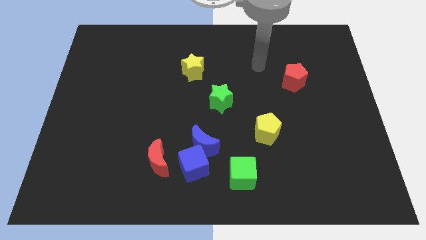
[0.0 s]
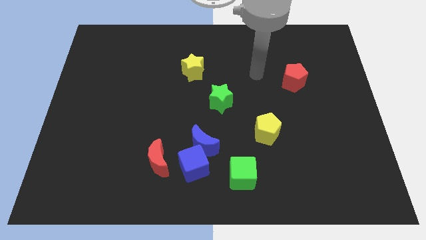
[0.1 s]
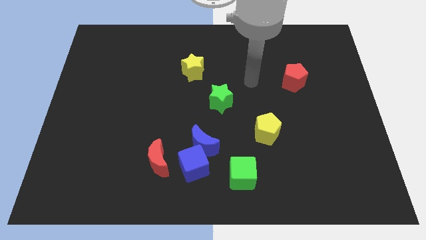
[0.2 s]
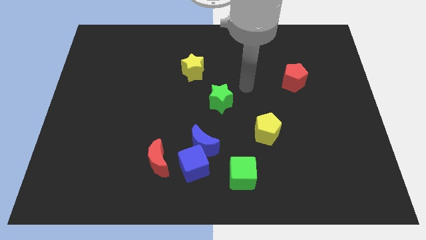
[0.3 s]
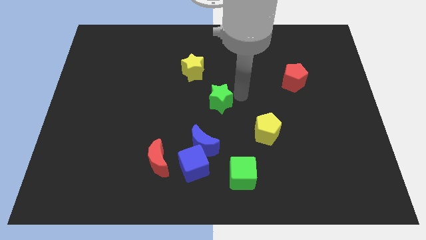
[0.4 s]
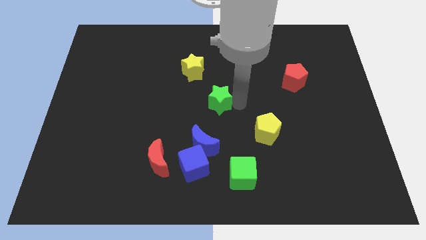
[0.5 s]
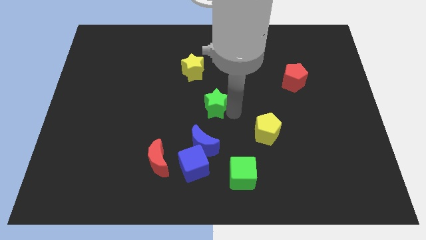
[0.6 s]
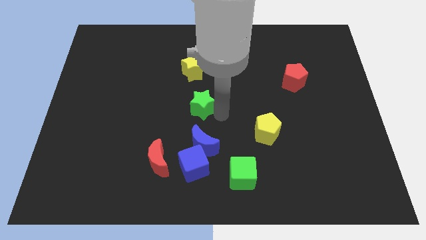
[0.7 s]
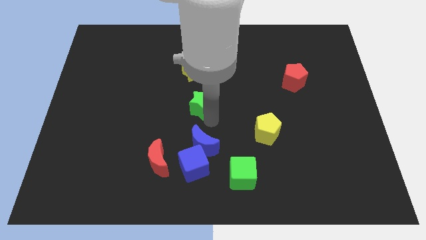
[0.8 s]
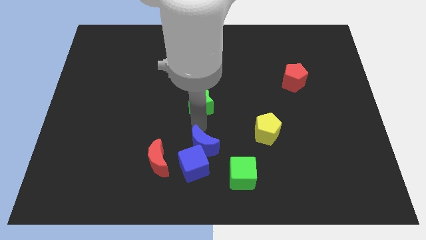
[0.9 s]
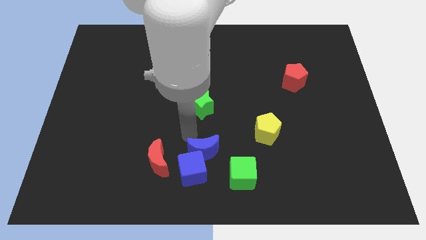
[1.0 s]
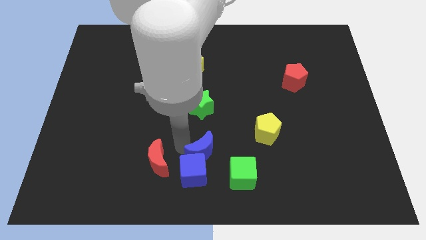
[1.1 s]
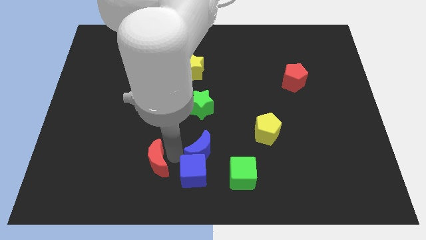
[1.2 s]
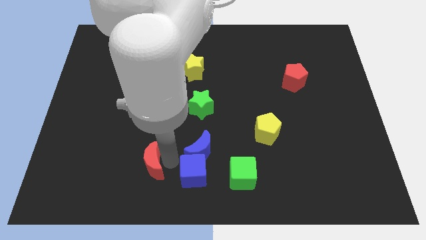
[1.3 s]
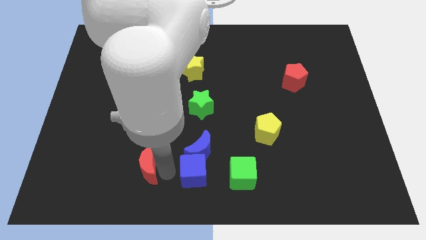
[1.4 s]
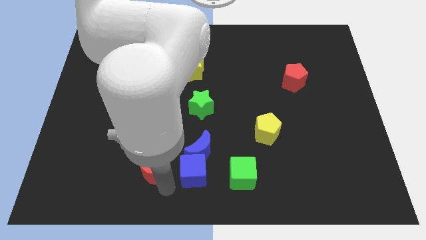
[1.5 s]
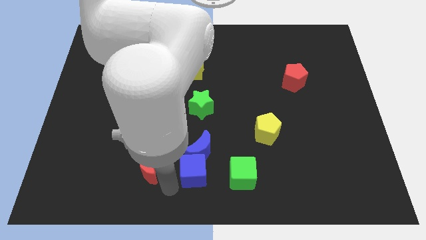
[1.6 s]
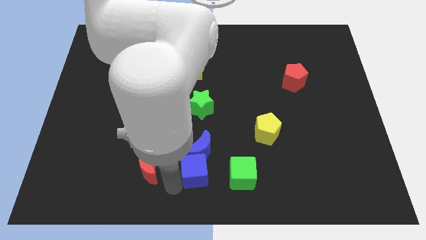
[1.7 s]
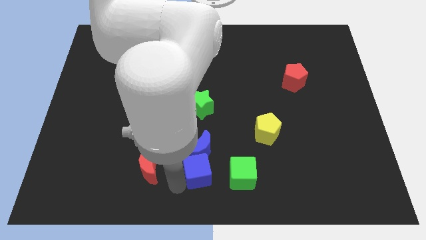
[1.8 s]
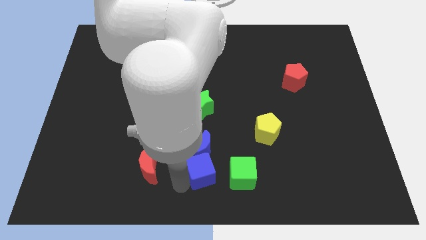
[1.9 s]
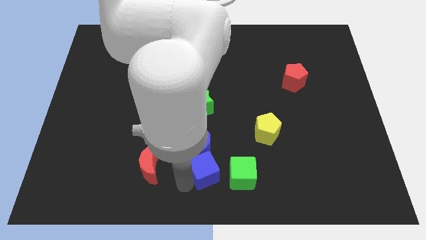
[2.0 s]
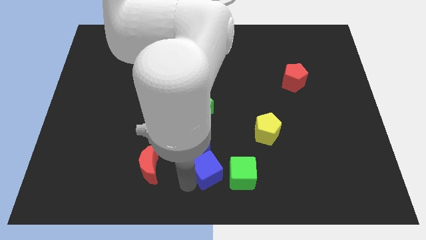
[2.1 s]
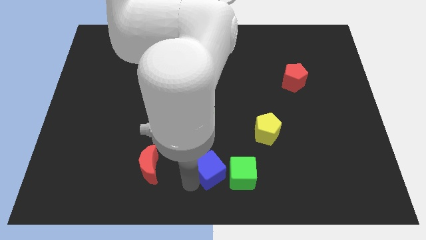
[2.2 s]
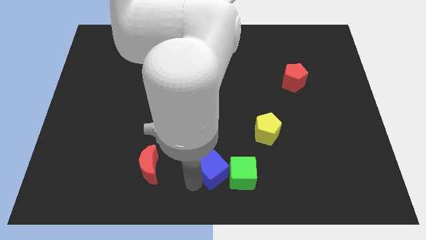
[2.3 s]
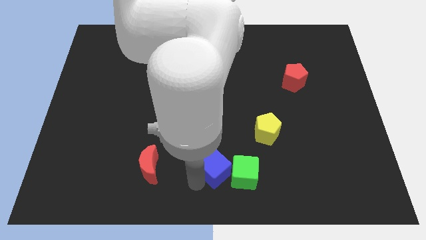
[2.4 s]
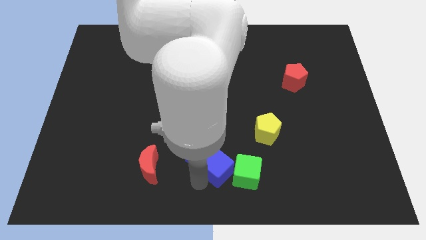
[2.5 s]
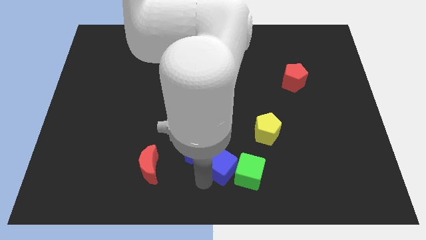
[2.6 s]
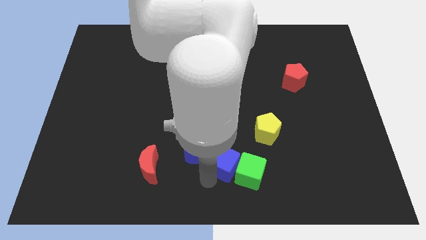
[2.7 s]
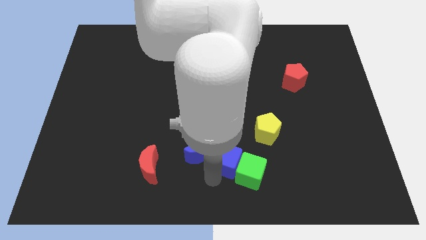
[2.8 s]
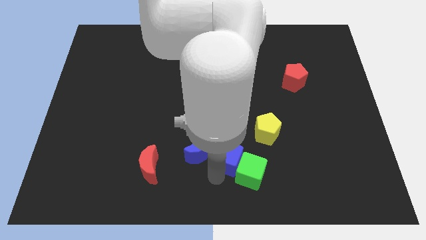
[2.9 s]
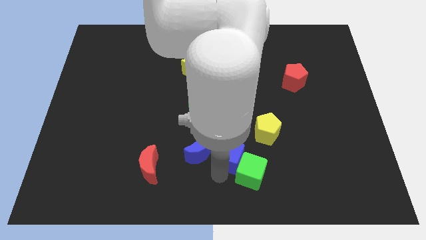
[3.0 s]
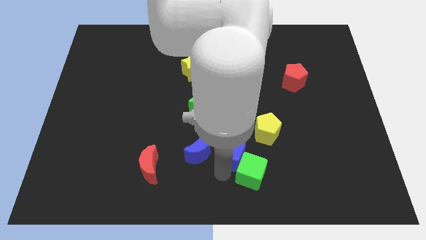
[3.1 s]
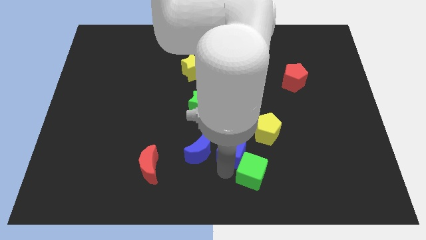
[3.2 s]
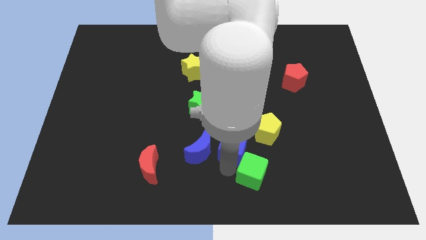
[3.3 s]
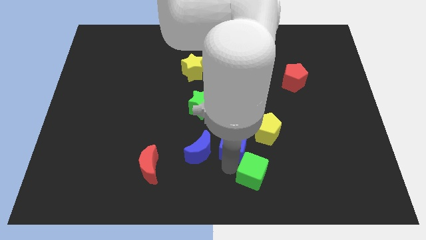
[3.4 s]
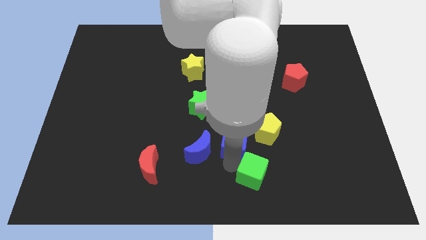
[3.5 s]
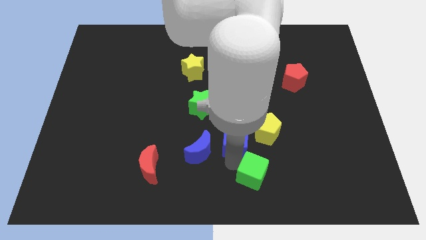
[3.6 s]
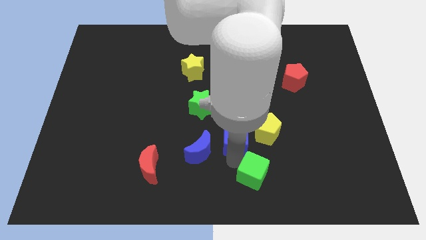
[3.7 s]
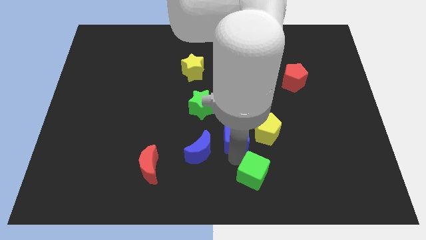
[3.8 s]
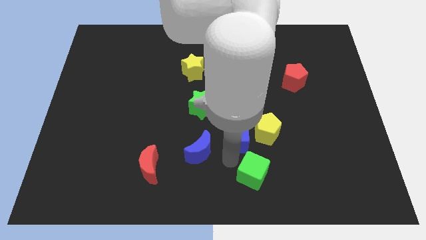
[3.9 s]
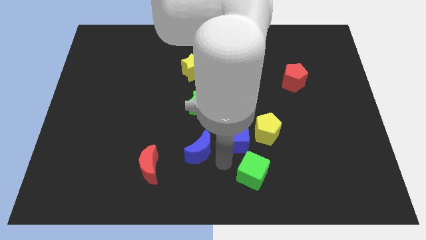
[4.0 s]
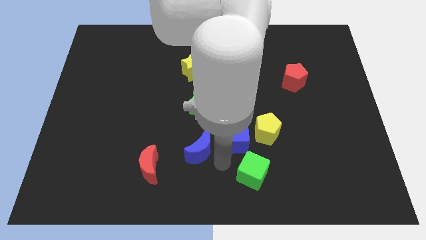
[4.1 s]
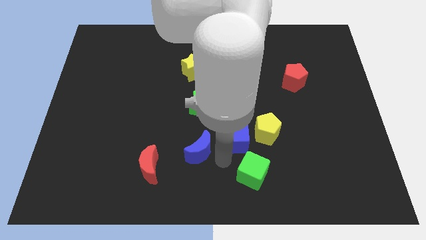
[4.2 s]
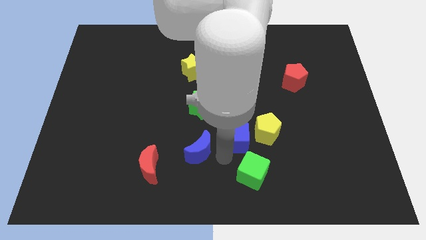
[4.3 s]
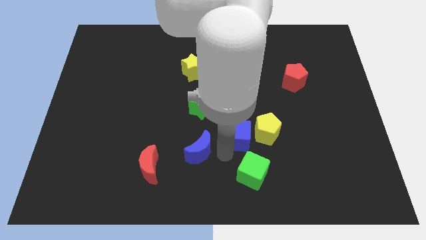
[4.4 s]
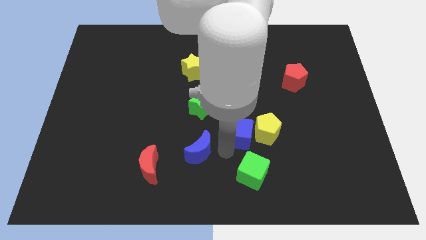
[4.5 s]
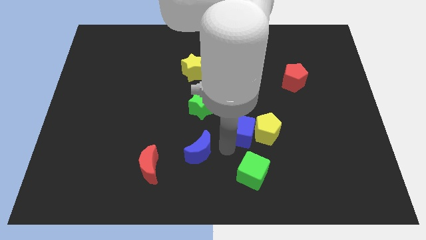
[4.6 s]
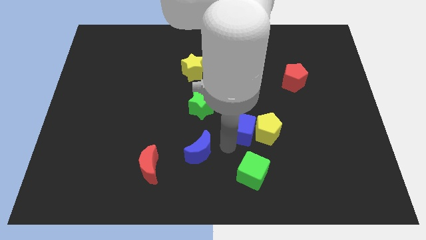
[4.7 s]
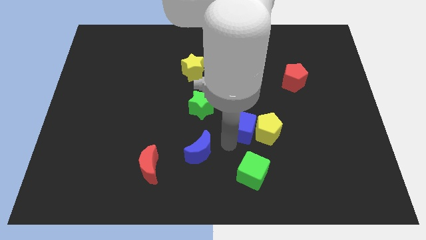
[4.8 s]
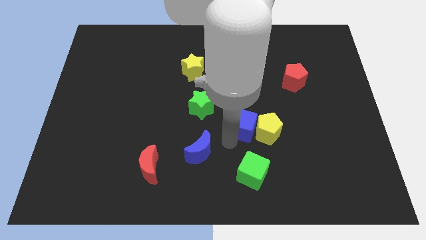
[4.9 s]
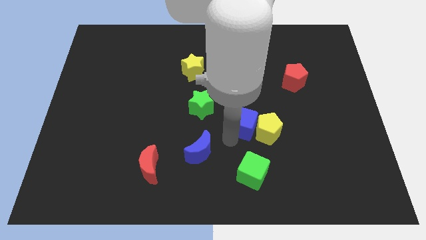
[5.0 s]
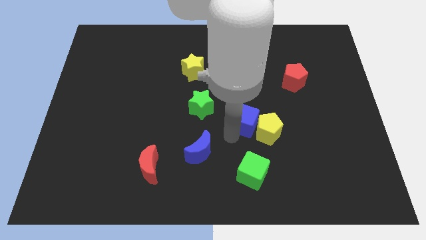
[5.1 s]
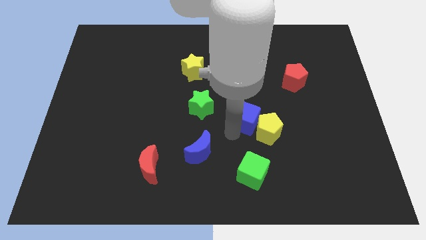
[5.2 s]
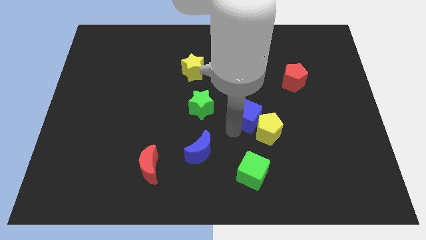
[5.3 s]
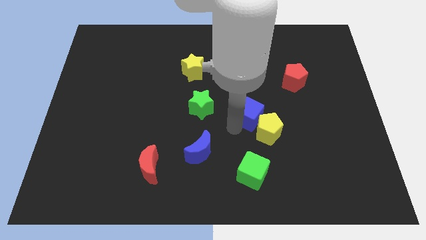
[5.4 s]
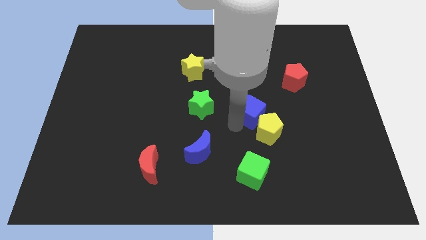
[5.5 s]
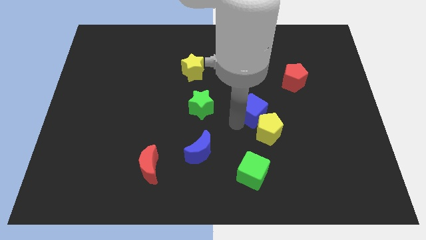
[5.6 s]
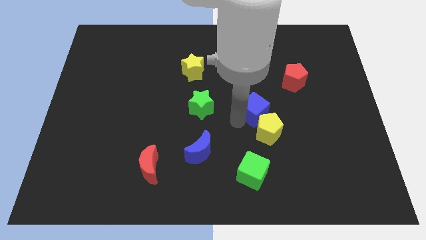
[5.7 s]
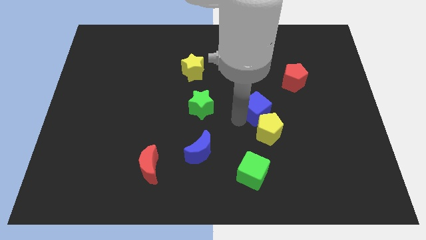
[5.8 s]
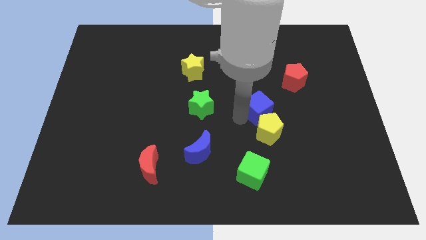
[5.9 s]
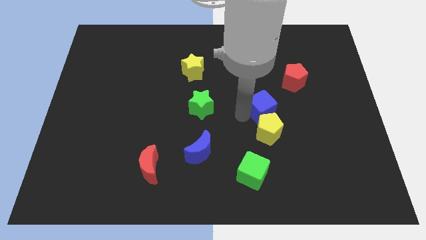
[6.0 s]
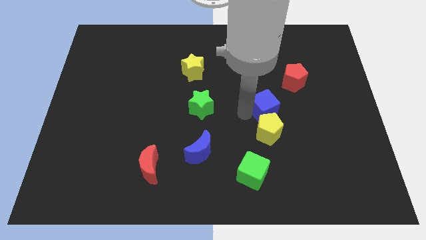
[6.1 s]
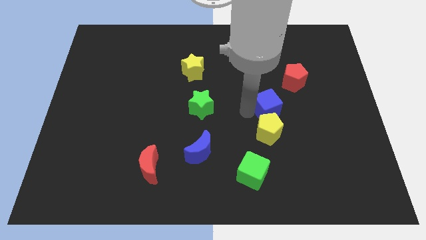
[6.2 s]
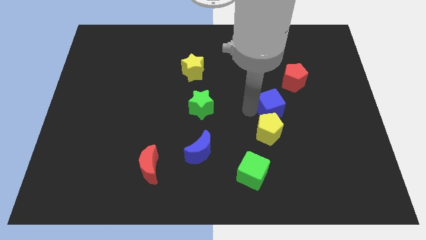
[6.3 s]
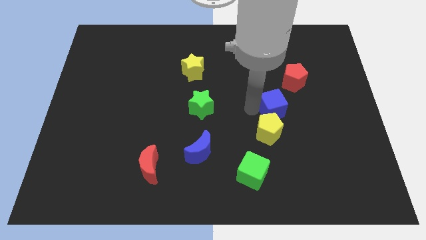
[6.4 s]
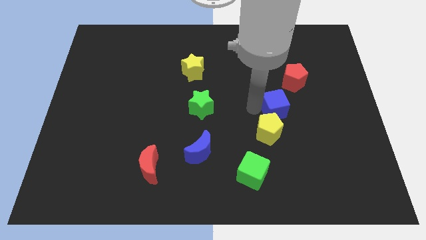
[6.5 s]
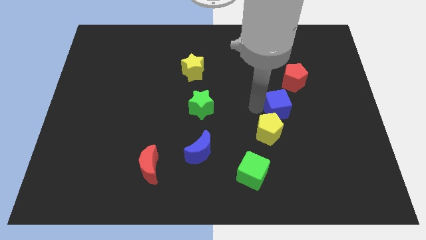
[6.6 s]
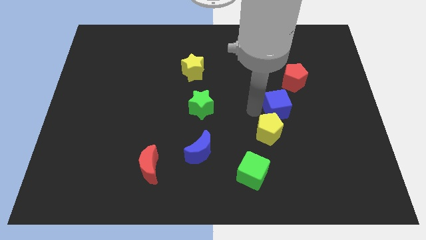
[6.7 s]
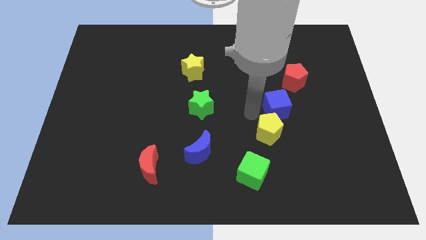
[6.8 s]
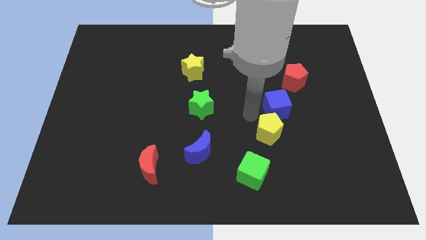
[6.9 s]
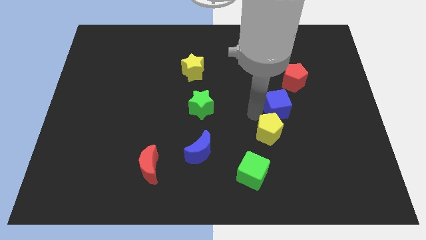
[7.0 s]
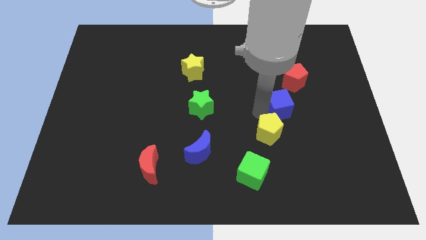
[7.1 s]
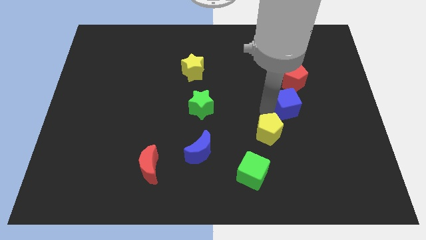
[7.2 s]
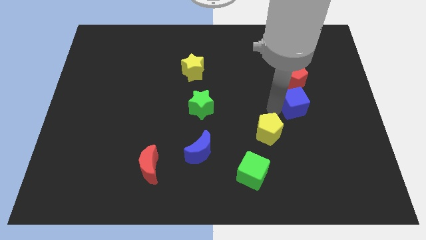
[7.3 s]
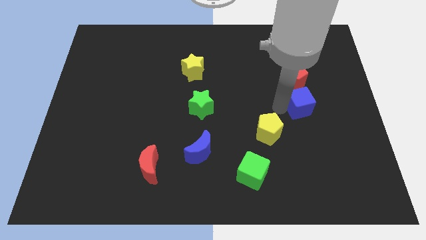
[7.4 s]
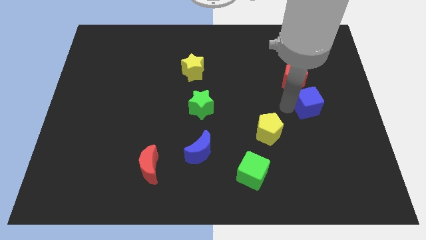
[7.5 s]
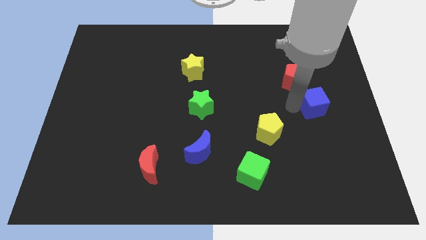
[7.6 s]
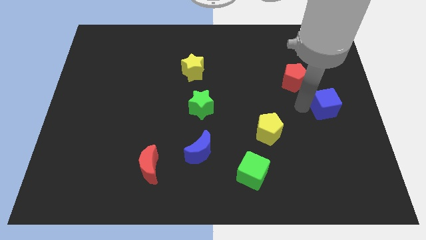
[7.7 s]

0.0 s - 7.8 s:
put the blue cube to the right side
